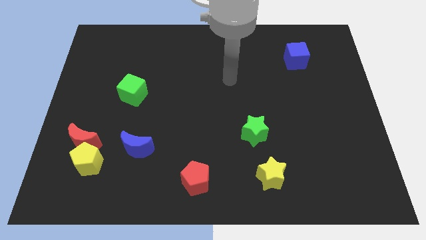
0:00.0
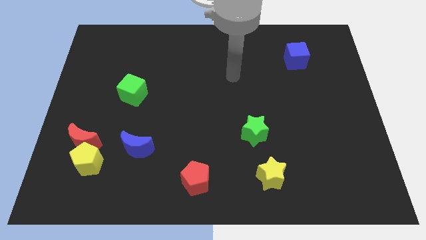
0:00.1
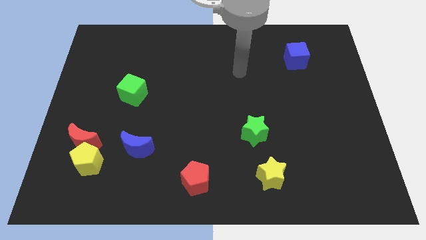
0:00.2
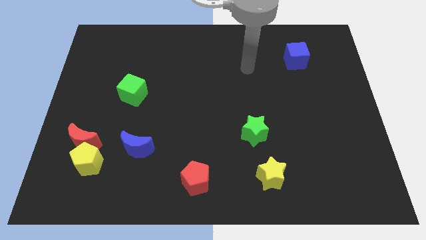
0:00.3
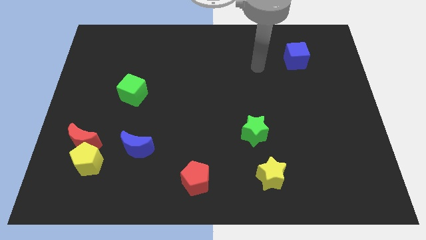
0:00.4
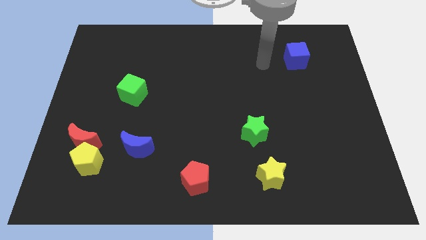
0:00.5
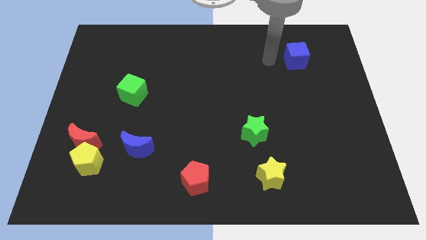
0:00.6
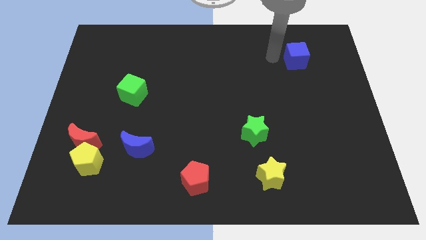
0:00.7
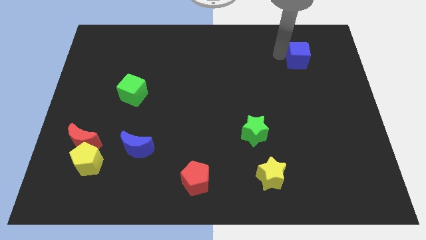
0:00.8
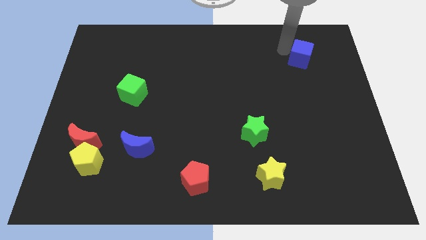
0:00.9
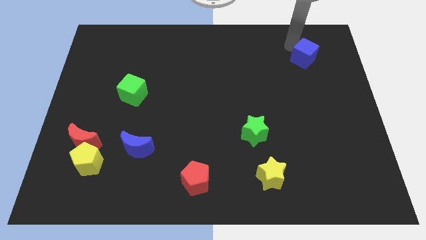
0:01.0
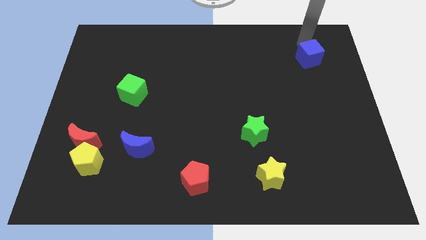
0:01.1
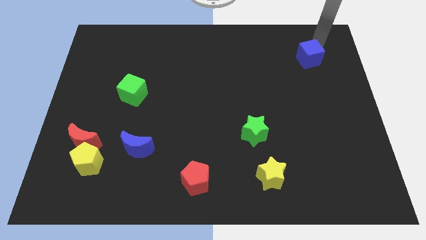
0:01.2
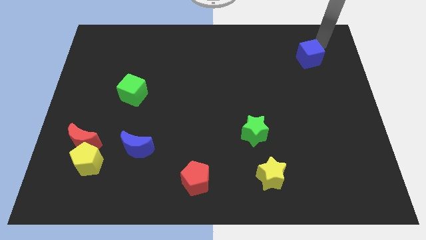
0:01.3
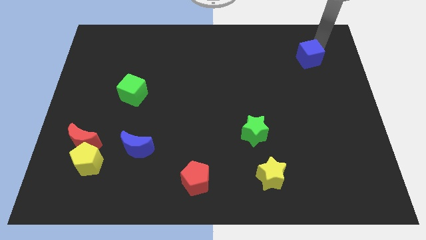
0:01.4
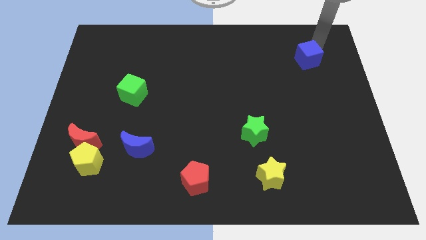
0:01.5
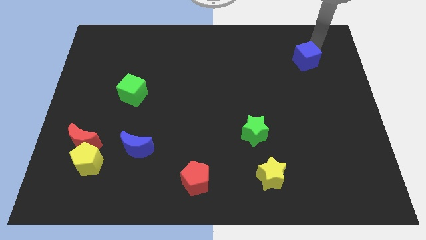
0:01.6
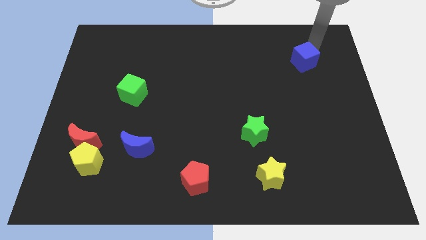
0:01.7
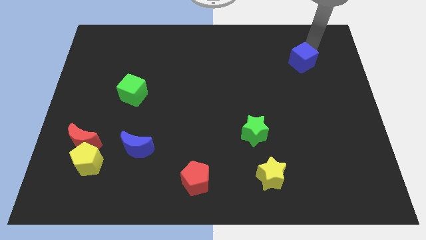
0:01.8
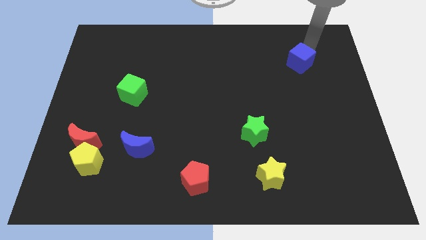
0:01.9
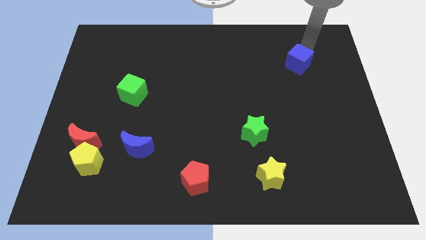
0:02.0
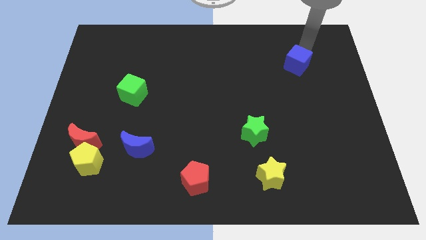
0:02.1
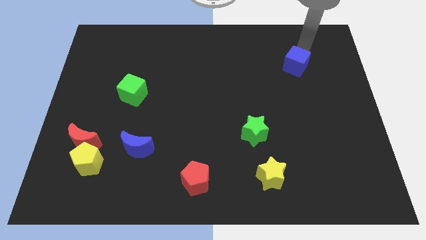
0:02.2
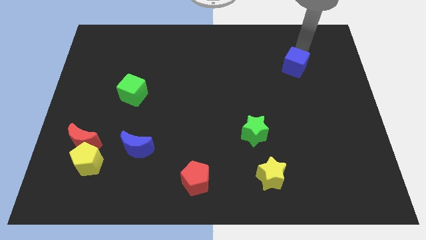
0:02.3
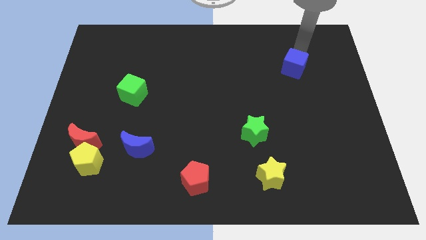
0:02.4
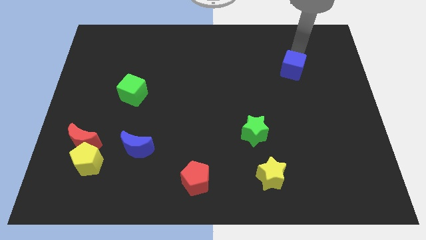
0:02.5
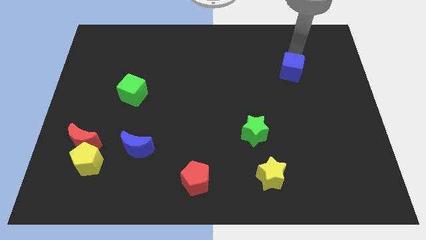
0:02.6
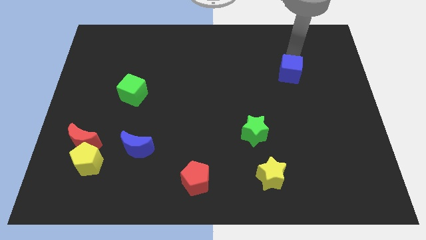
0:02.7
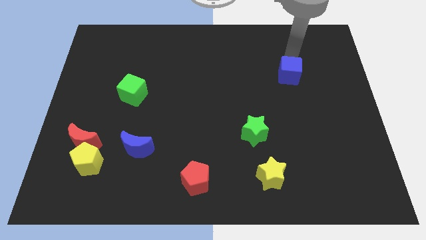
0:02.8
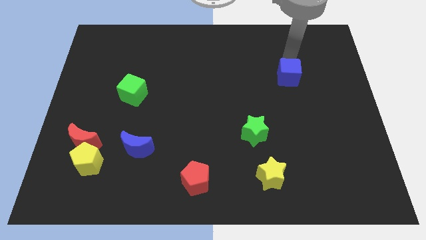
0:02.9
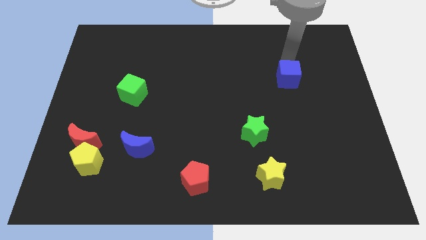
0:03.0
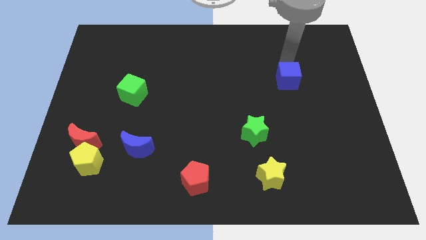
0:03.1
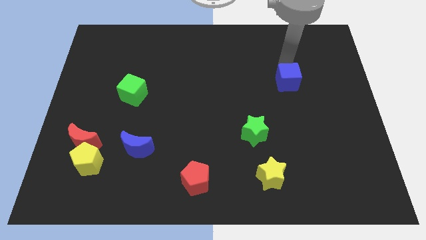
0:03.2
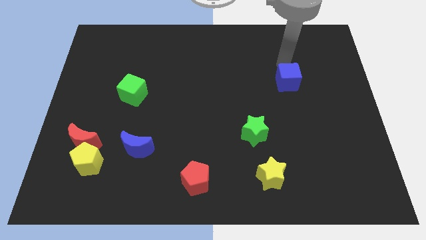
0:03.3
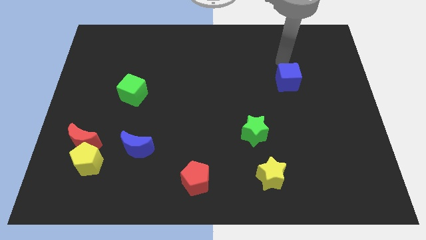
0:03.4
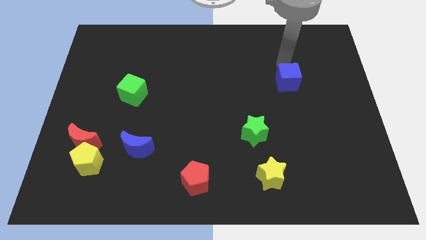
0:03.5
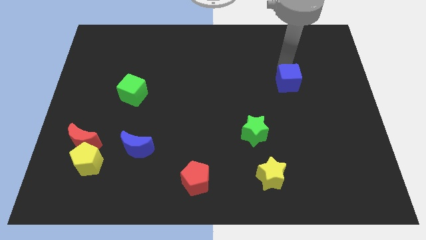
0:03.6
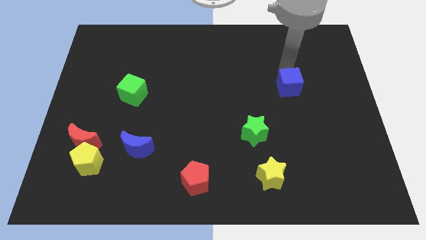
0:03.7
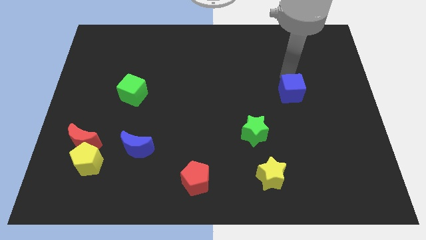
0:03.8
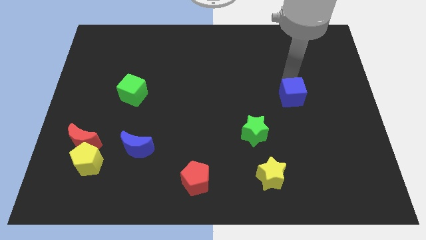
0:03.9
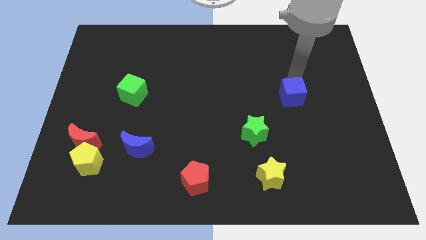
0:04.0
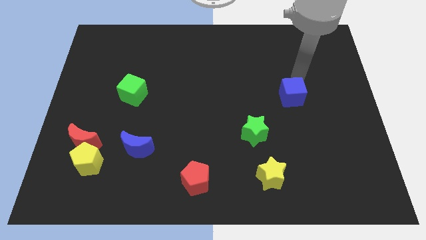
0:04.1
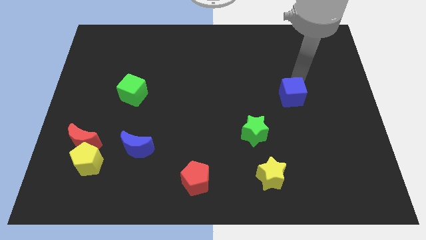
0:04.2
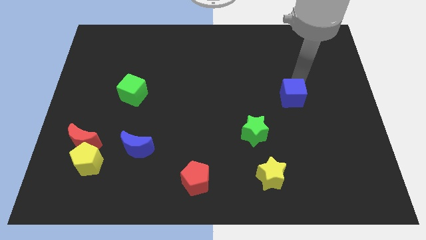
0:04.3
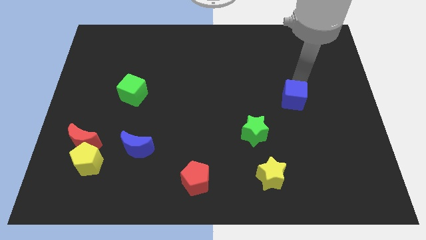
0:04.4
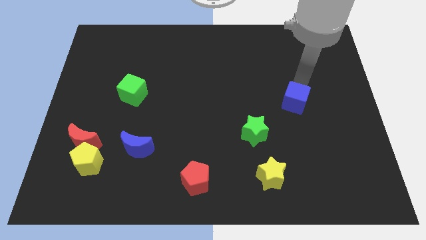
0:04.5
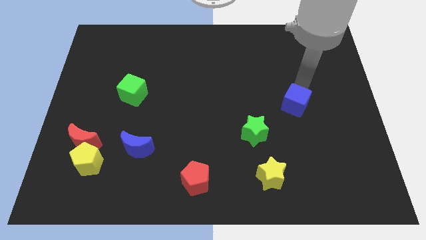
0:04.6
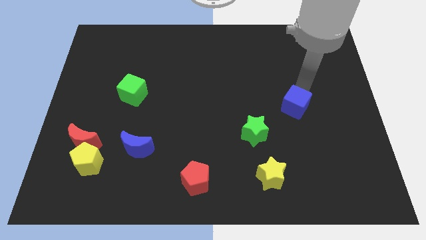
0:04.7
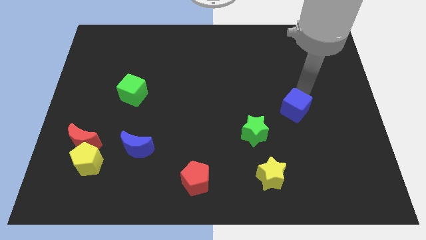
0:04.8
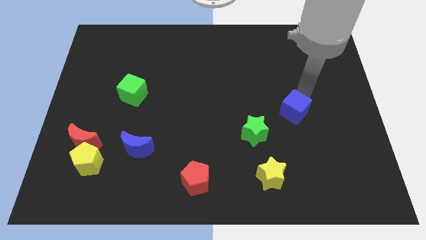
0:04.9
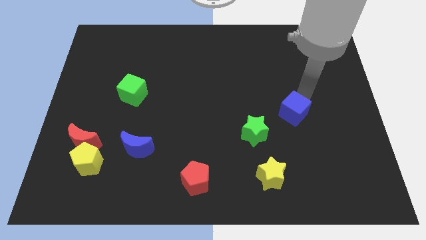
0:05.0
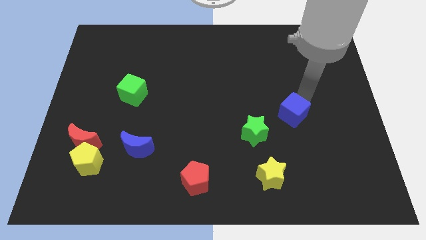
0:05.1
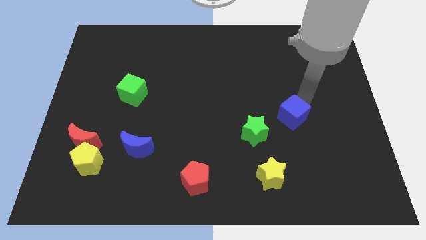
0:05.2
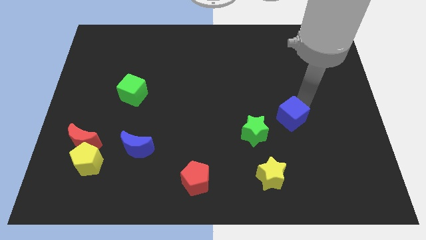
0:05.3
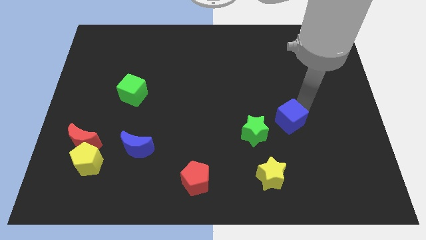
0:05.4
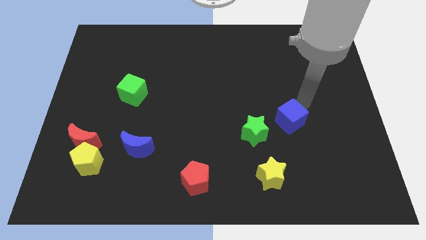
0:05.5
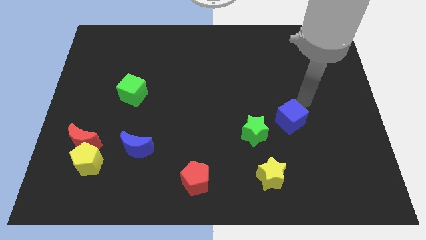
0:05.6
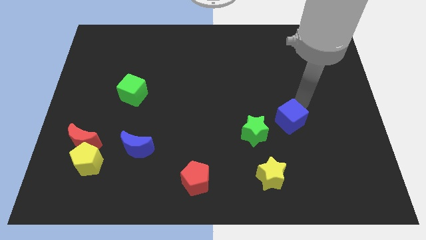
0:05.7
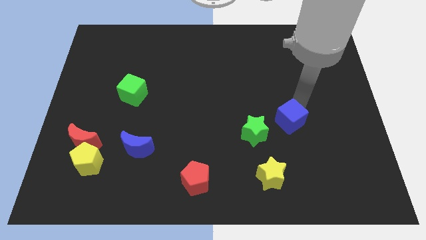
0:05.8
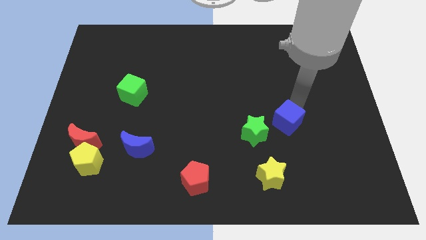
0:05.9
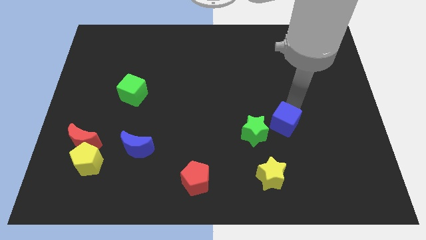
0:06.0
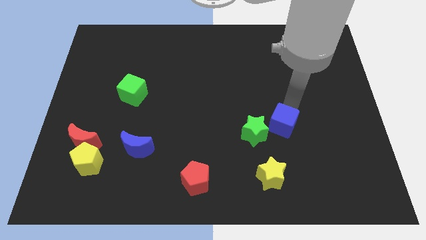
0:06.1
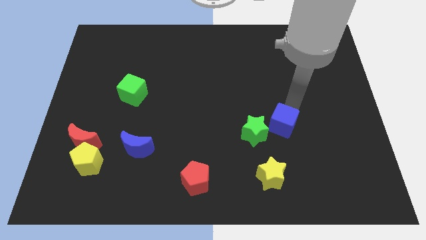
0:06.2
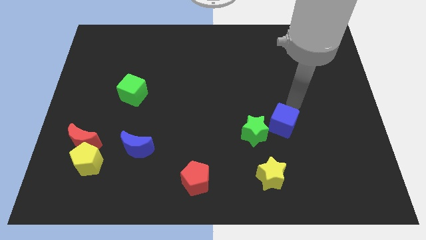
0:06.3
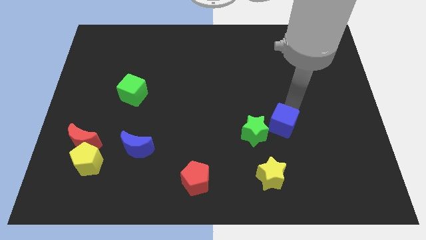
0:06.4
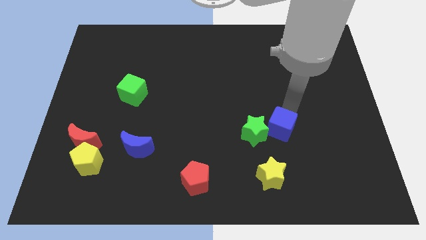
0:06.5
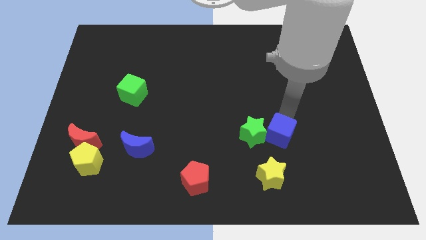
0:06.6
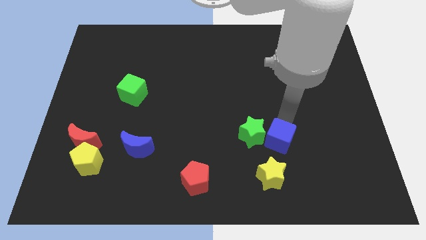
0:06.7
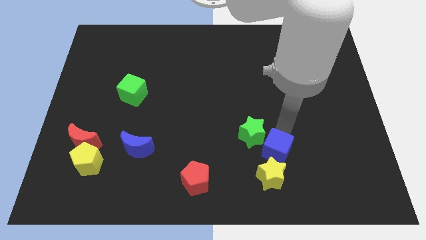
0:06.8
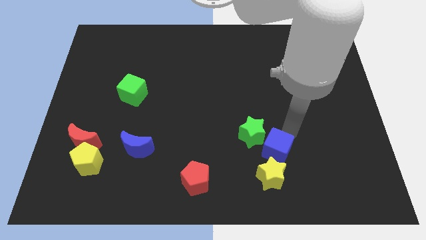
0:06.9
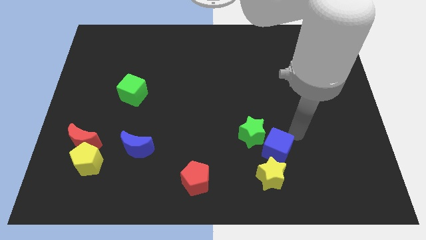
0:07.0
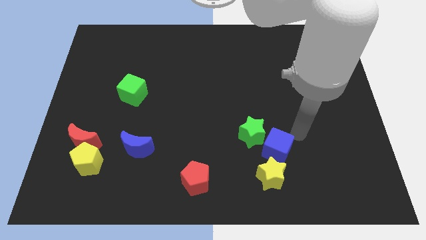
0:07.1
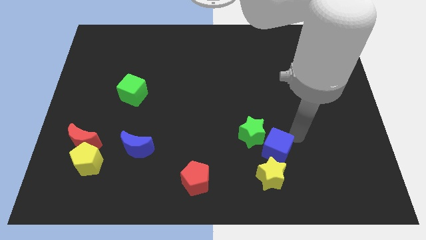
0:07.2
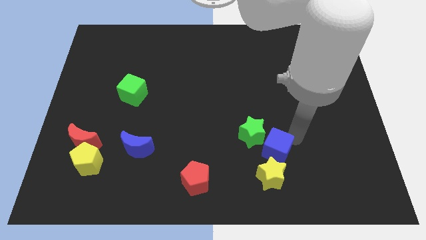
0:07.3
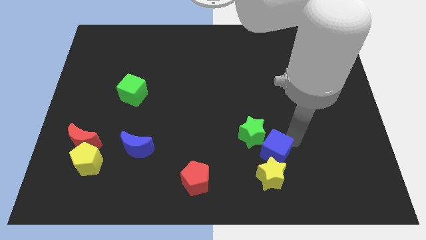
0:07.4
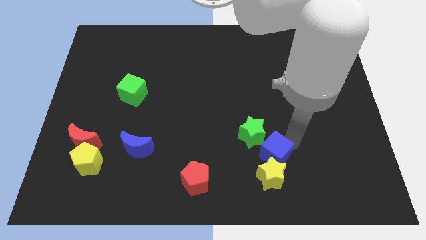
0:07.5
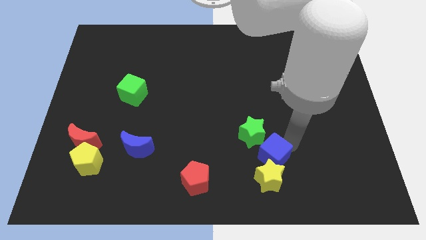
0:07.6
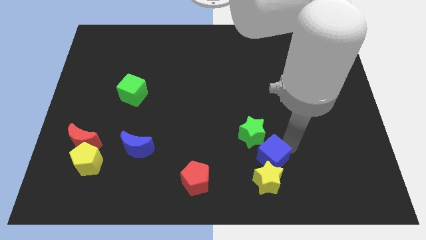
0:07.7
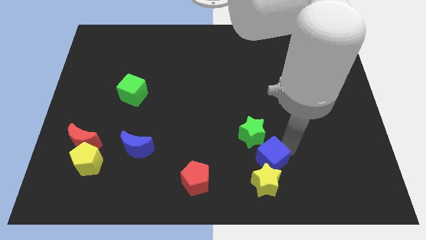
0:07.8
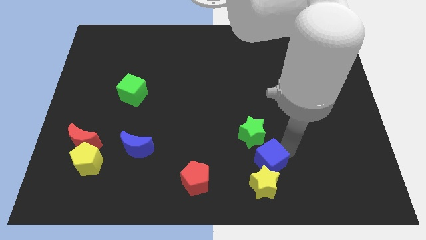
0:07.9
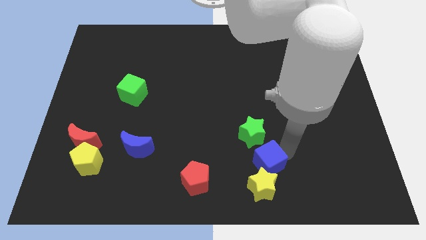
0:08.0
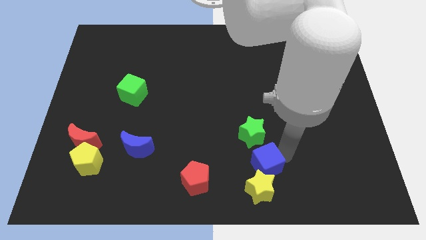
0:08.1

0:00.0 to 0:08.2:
move the blue cube to the right of the red pentagon
